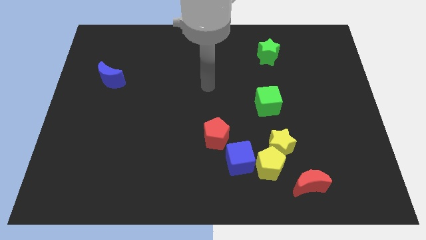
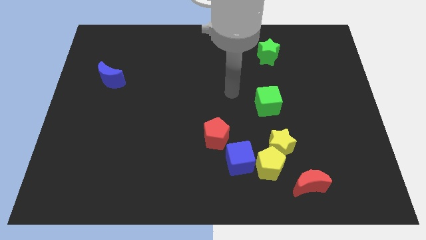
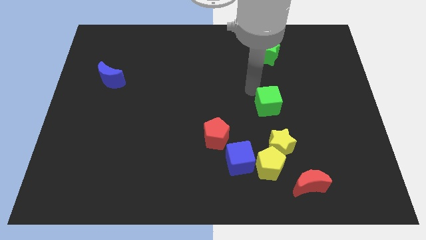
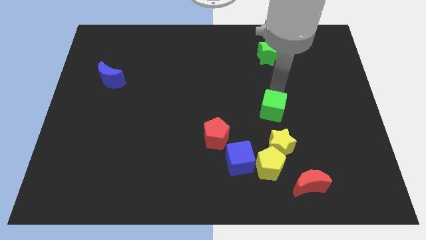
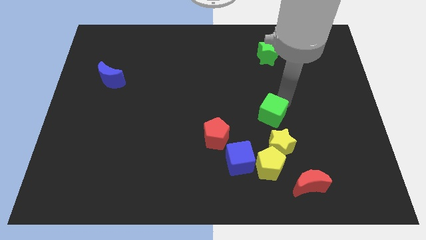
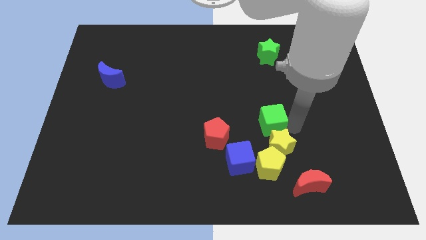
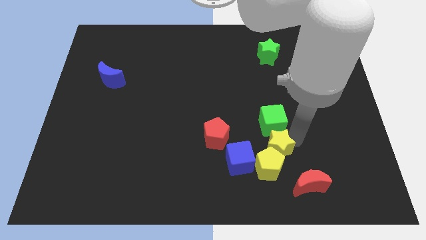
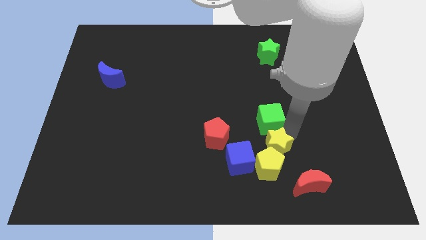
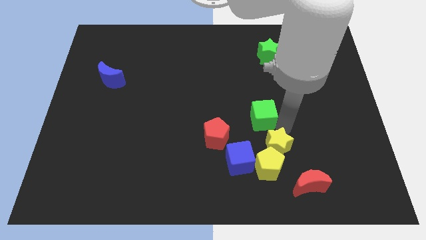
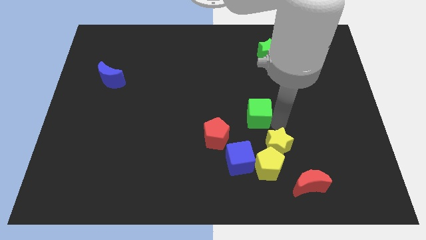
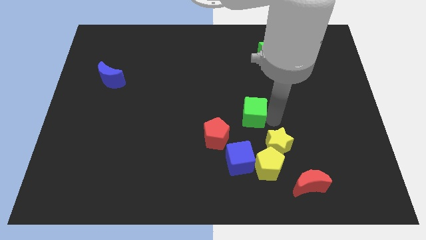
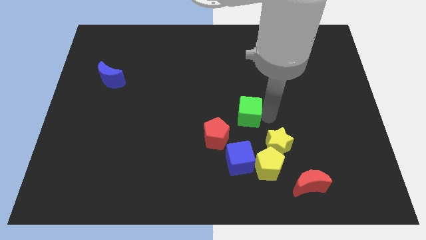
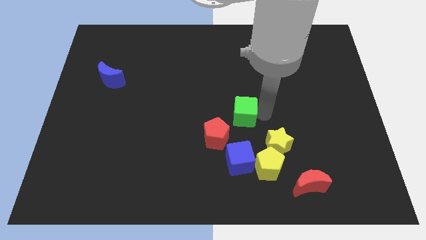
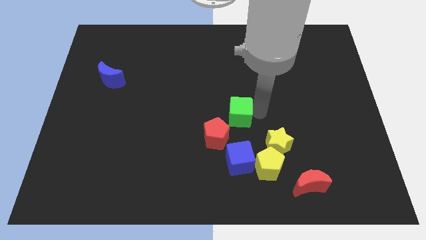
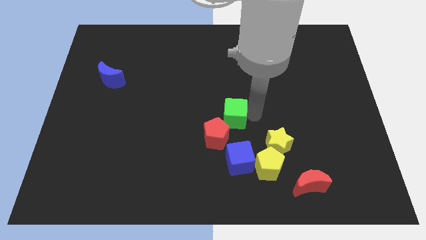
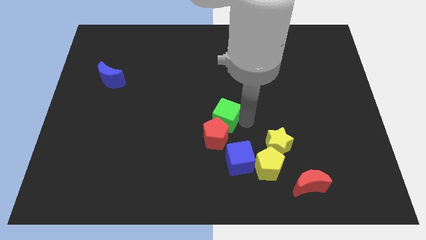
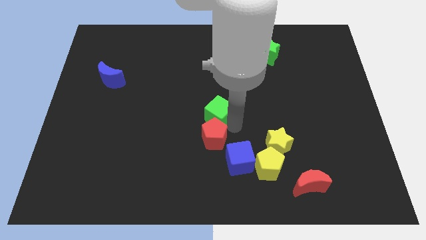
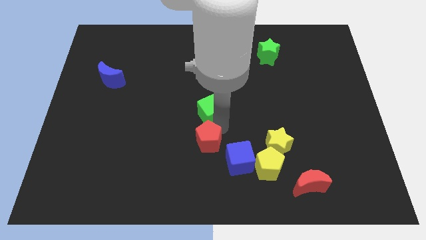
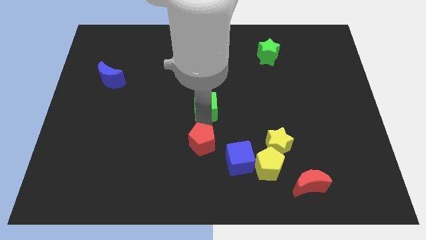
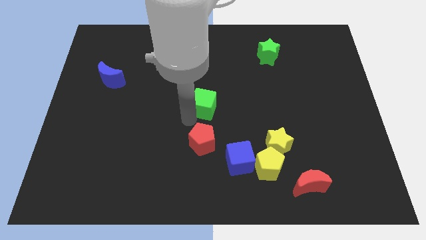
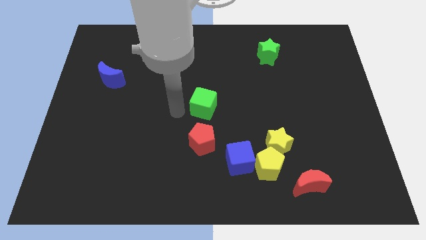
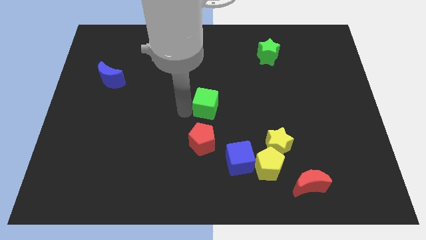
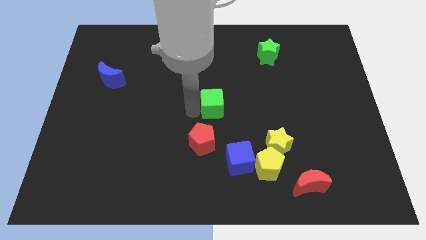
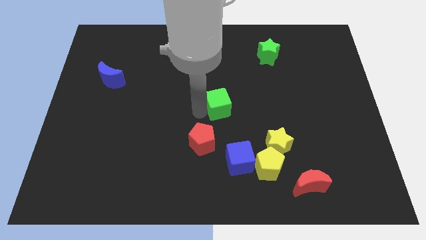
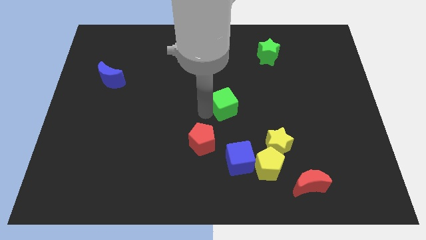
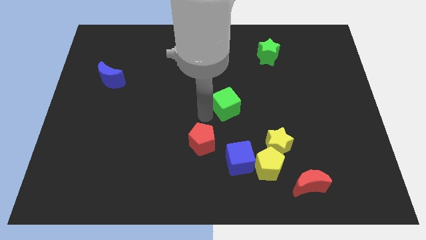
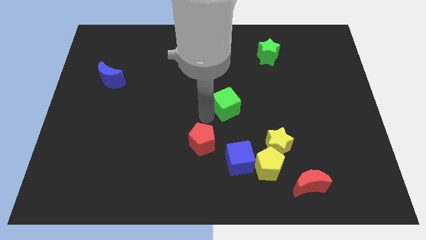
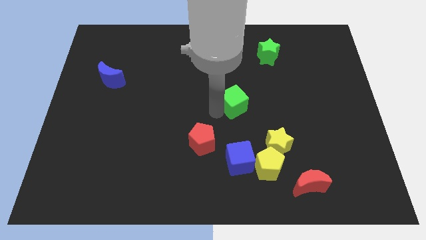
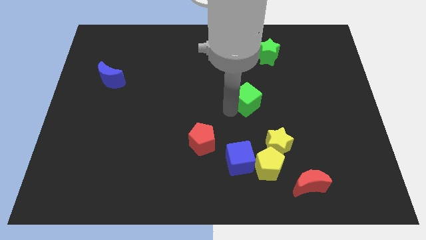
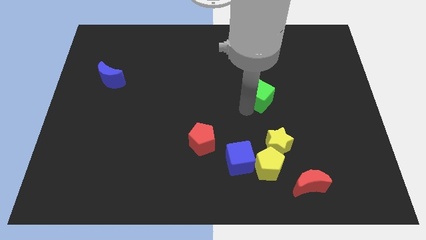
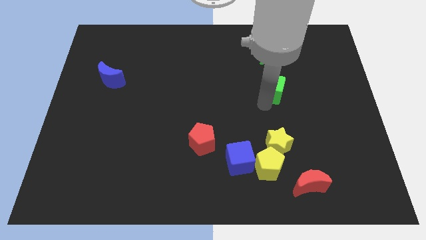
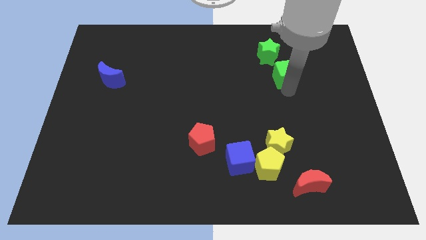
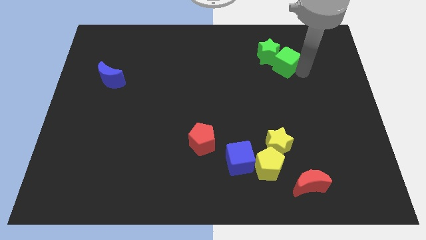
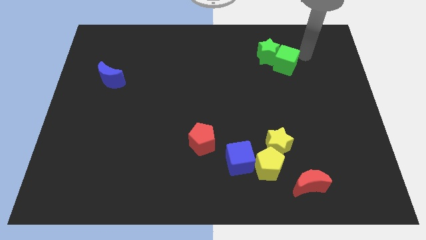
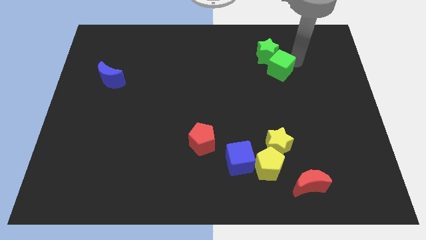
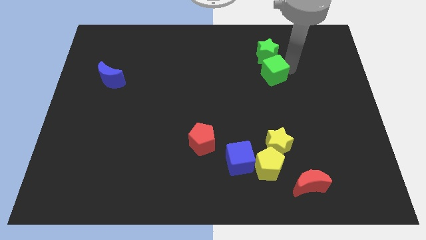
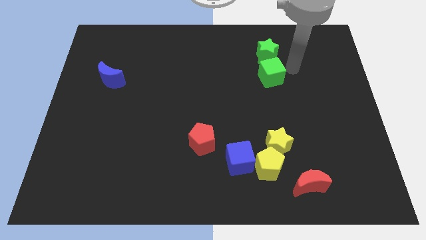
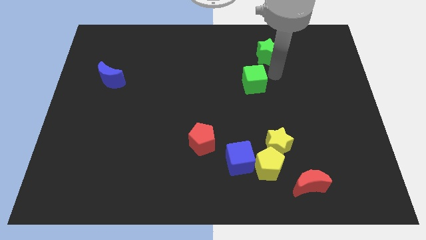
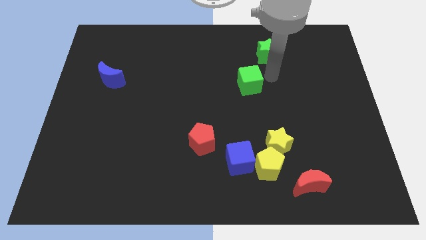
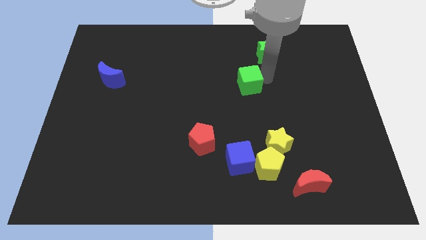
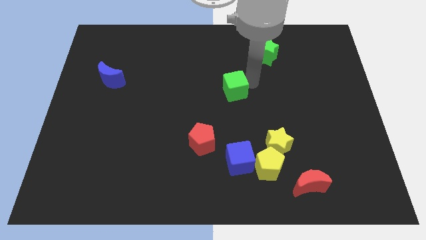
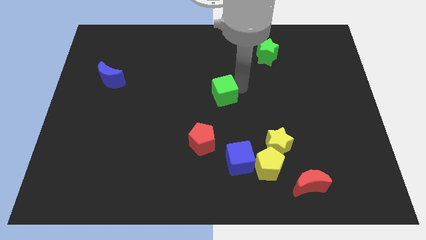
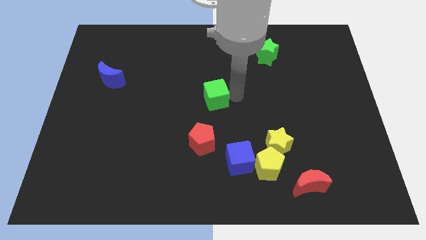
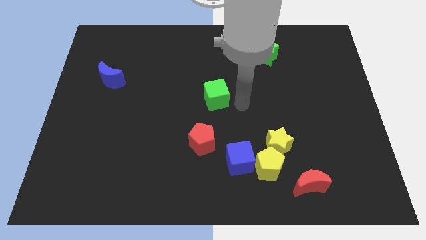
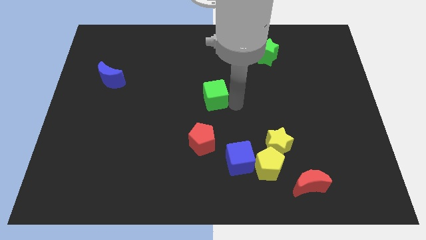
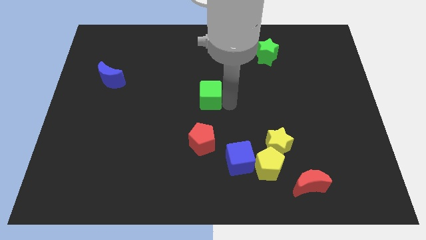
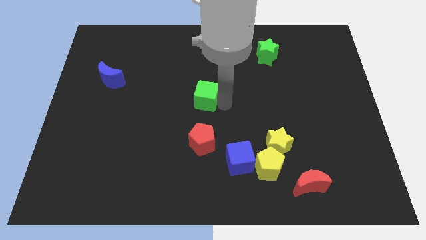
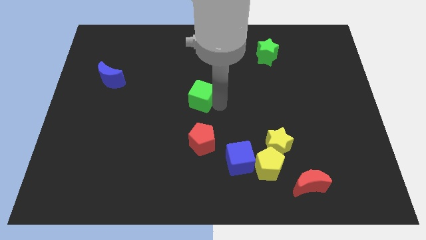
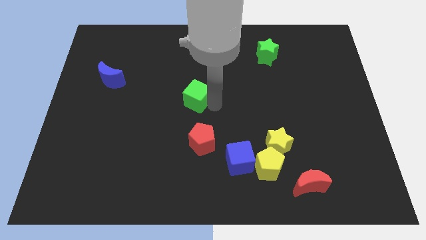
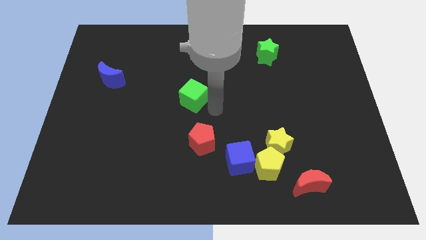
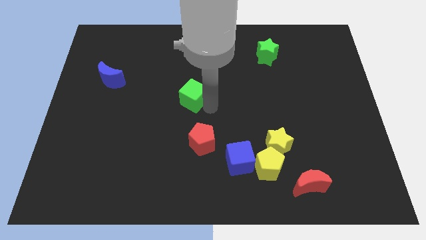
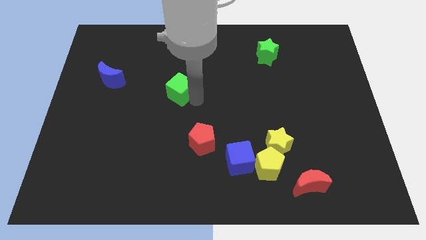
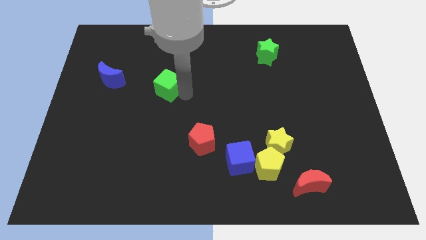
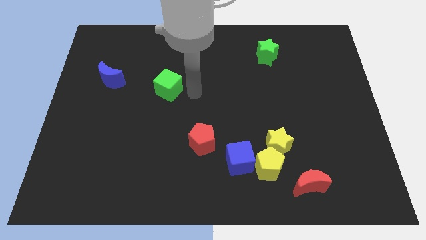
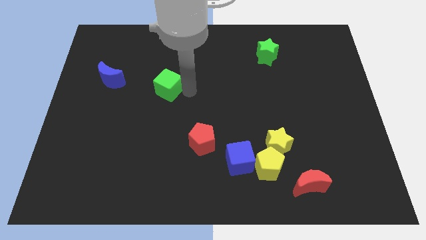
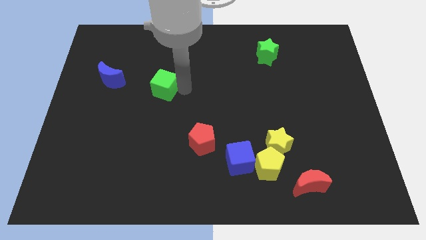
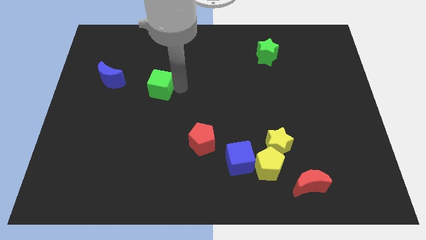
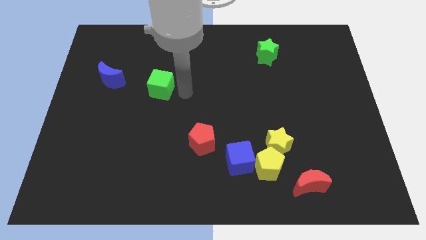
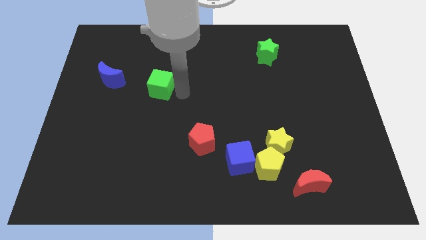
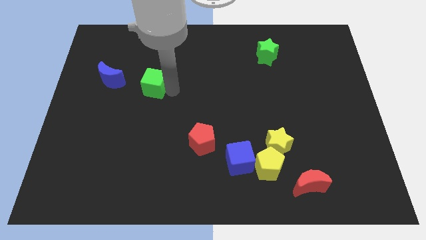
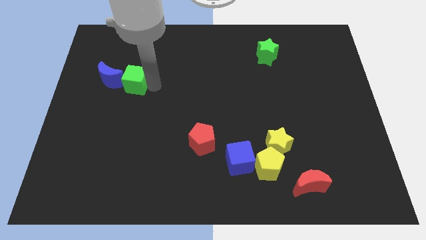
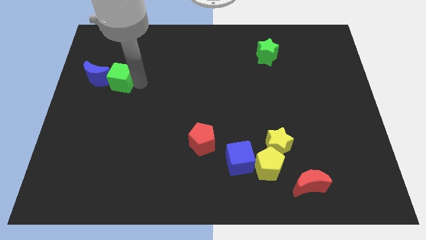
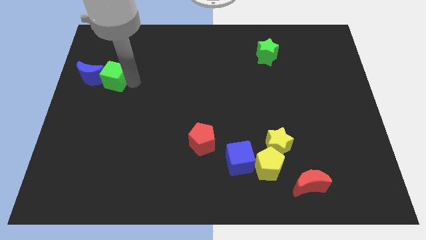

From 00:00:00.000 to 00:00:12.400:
push the green cube next to the blue moon
